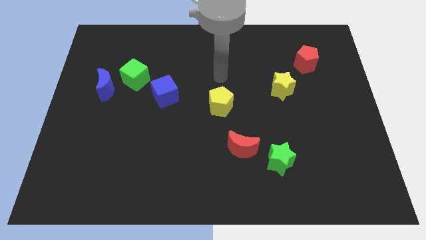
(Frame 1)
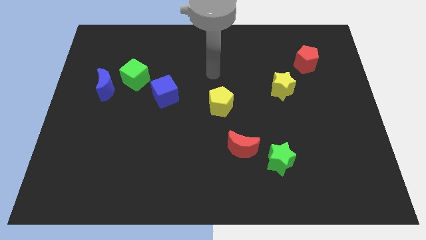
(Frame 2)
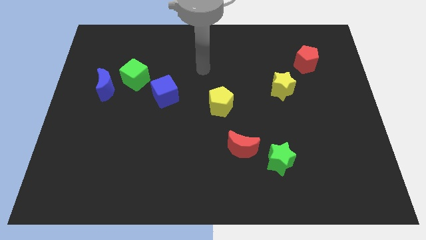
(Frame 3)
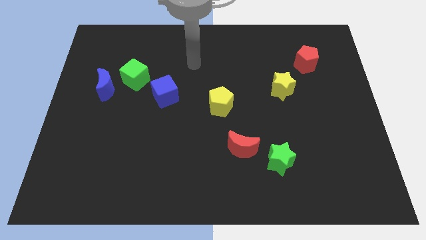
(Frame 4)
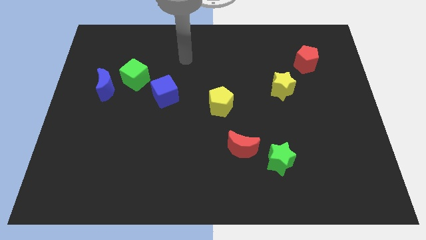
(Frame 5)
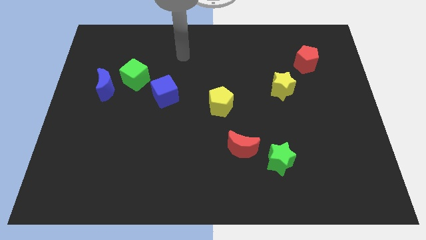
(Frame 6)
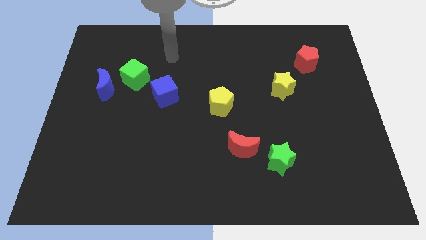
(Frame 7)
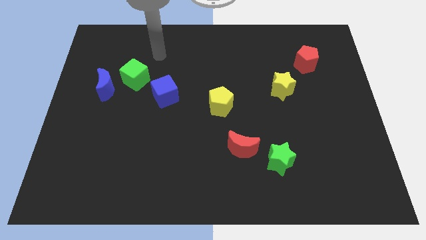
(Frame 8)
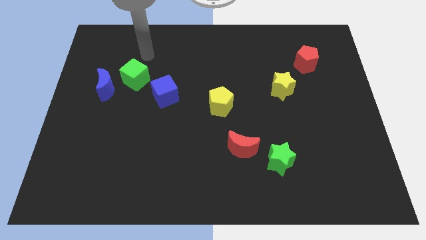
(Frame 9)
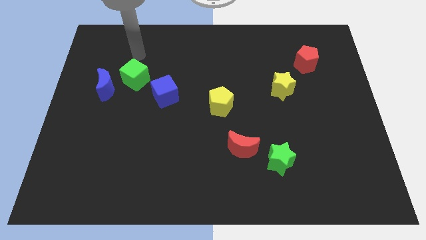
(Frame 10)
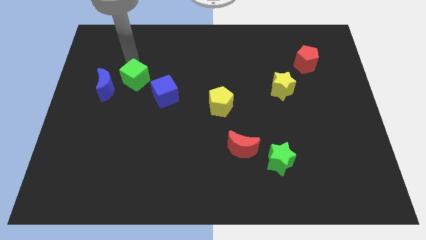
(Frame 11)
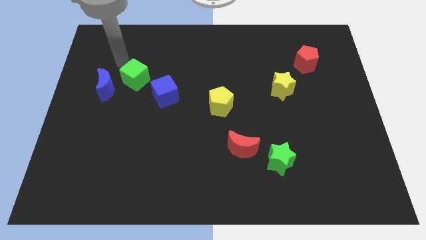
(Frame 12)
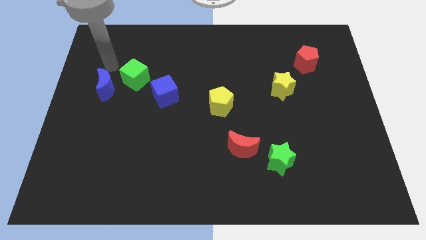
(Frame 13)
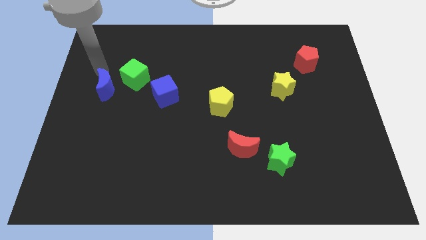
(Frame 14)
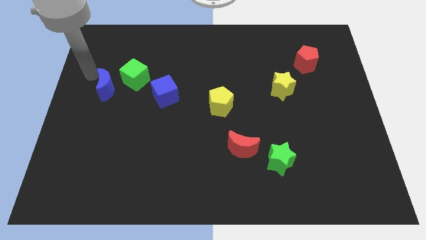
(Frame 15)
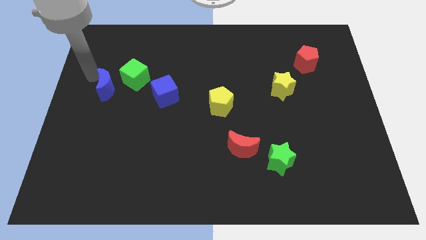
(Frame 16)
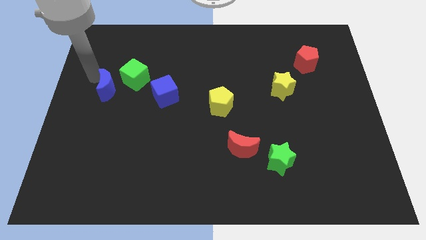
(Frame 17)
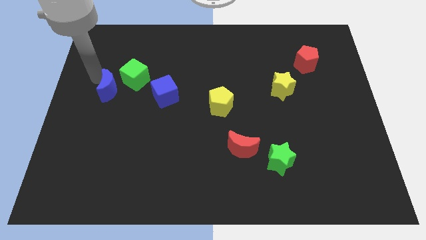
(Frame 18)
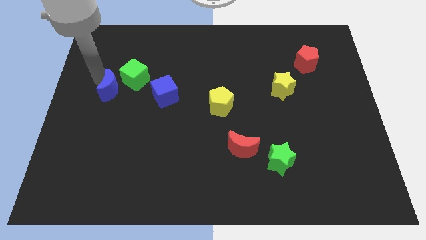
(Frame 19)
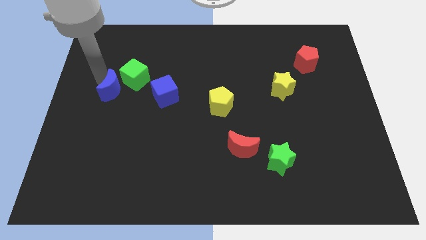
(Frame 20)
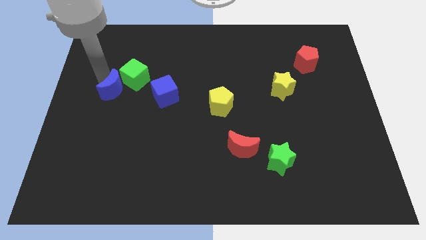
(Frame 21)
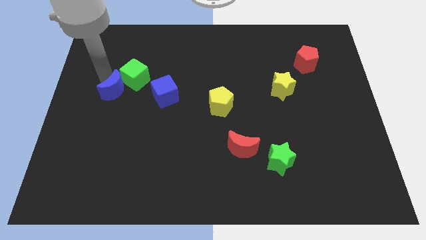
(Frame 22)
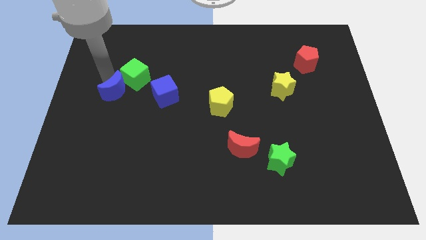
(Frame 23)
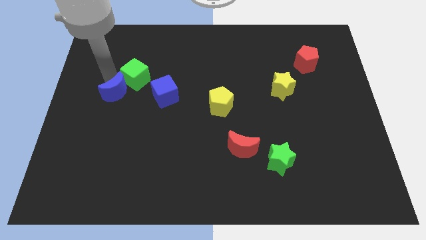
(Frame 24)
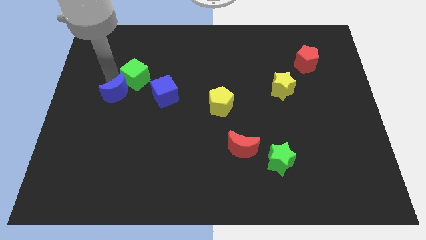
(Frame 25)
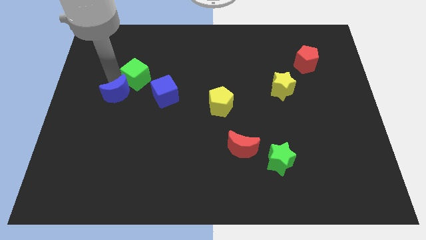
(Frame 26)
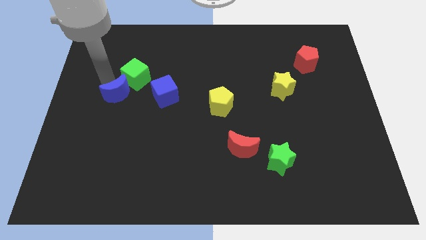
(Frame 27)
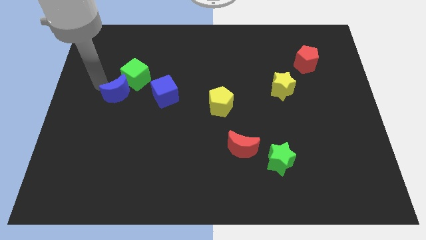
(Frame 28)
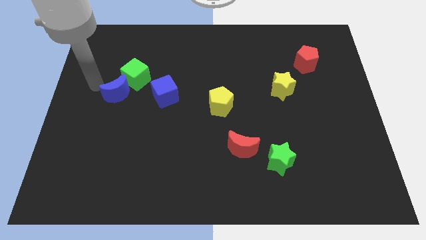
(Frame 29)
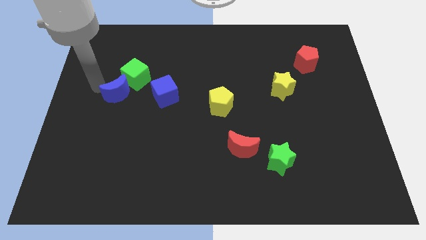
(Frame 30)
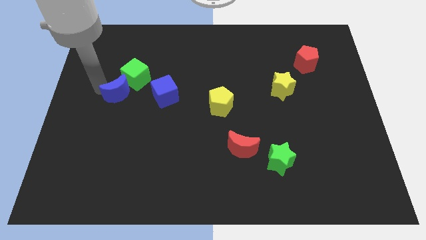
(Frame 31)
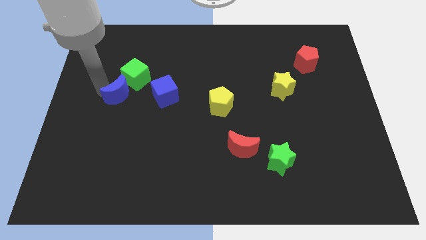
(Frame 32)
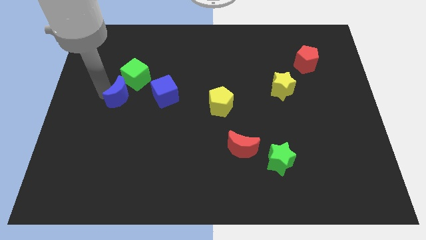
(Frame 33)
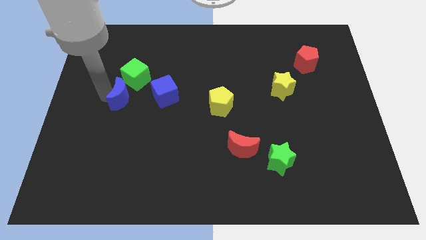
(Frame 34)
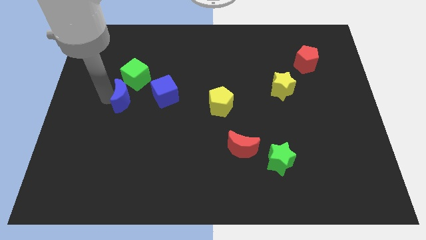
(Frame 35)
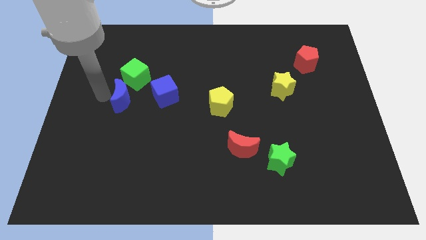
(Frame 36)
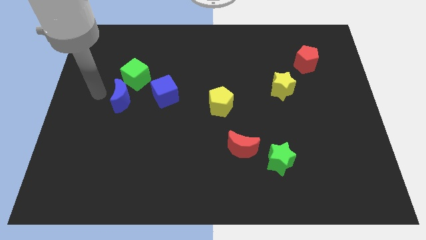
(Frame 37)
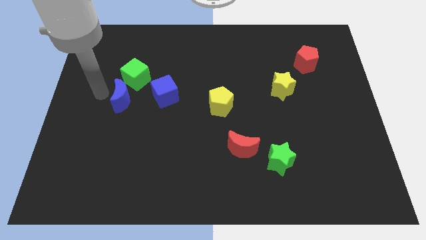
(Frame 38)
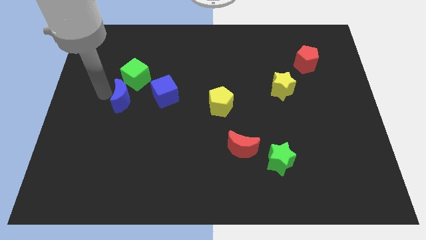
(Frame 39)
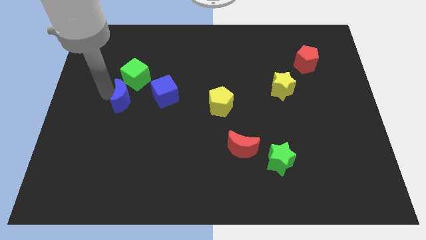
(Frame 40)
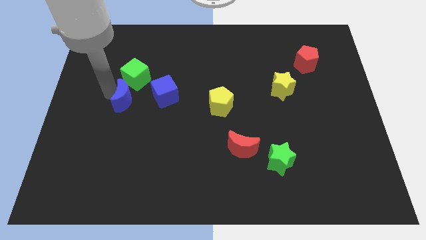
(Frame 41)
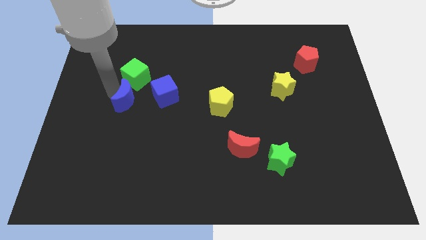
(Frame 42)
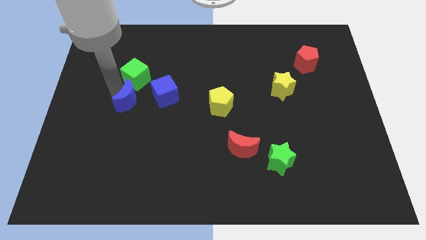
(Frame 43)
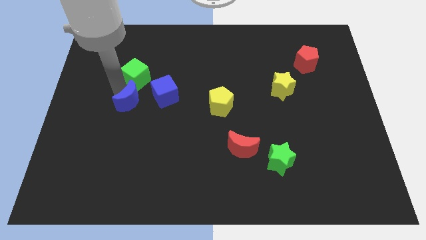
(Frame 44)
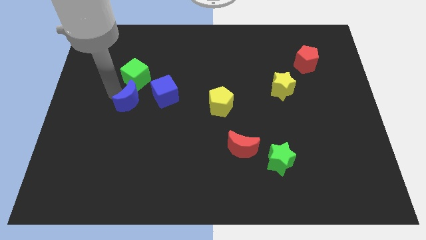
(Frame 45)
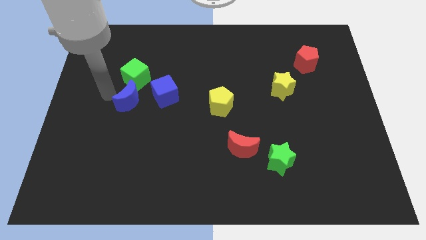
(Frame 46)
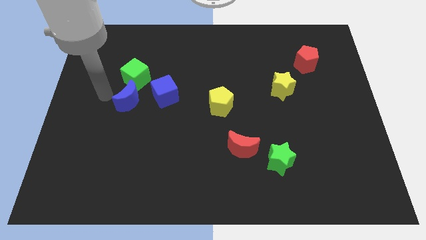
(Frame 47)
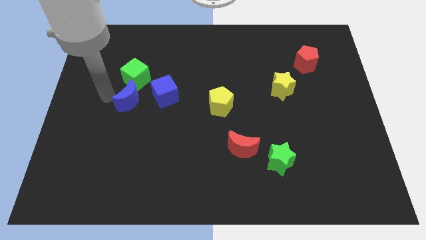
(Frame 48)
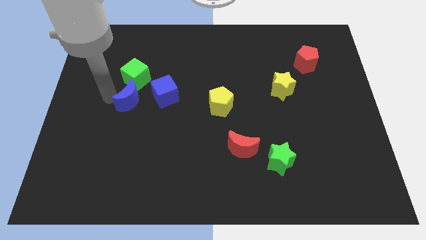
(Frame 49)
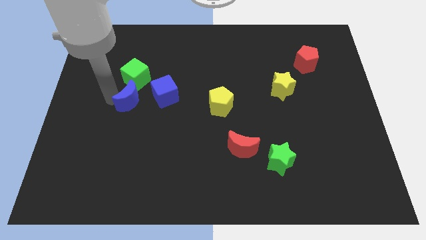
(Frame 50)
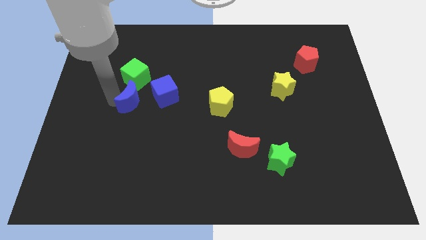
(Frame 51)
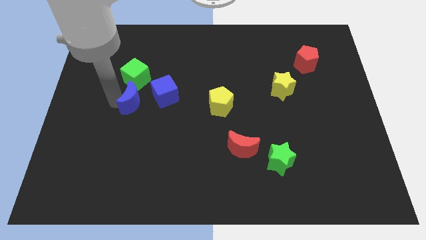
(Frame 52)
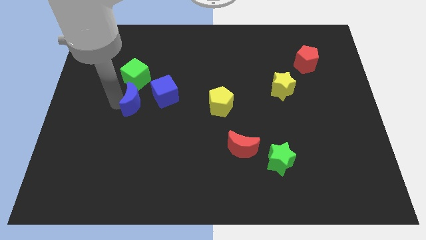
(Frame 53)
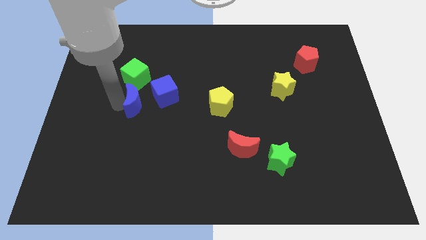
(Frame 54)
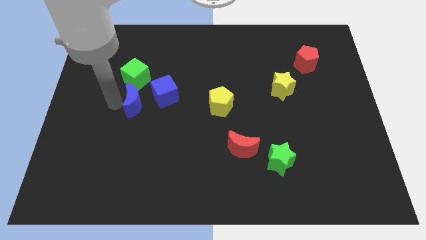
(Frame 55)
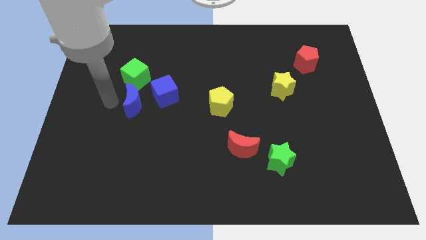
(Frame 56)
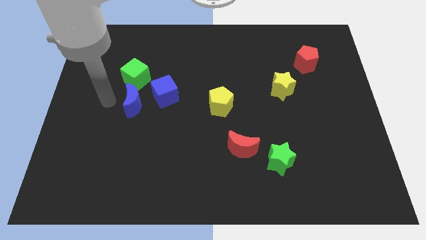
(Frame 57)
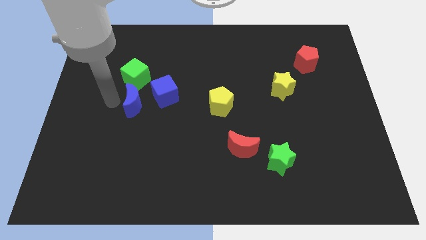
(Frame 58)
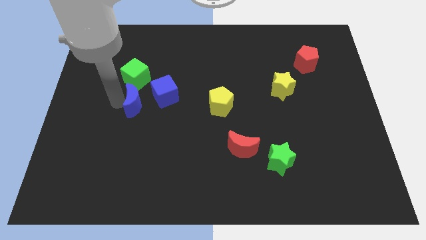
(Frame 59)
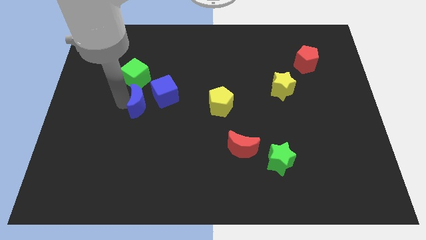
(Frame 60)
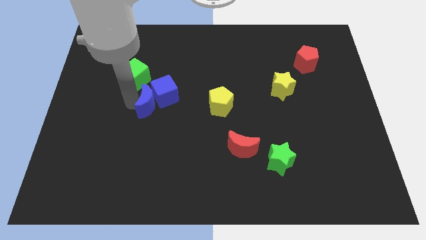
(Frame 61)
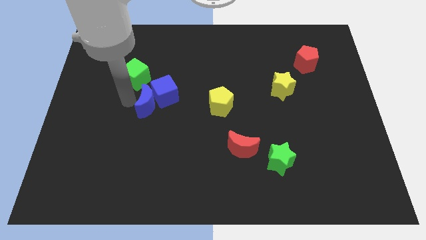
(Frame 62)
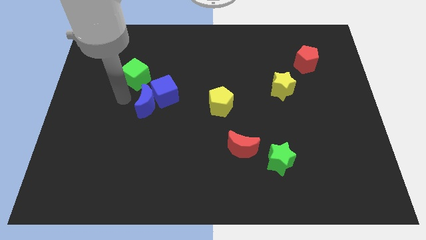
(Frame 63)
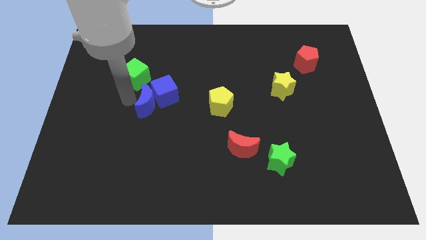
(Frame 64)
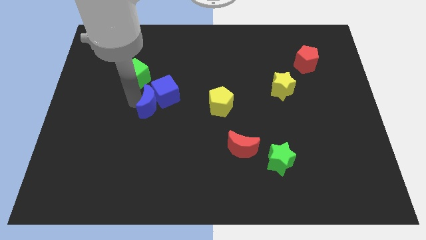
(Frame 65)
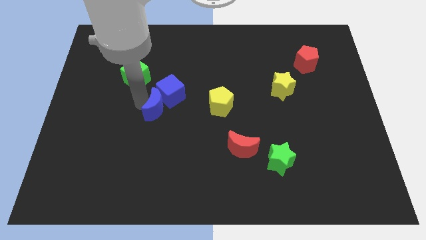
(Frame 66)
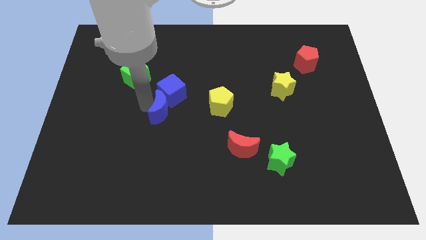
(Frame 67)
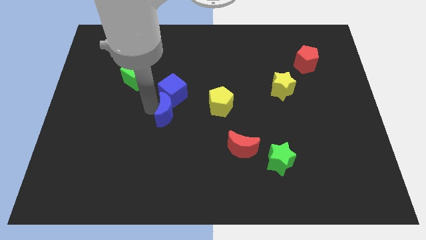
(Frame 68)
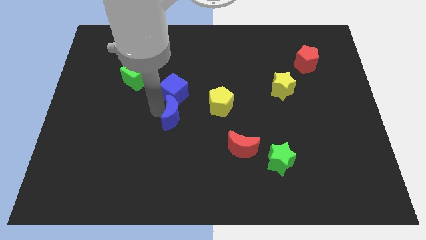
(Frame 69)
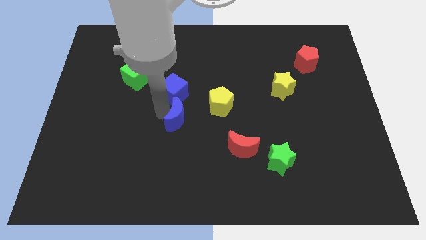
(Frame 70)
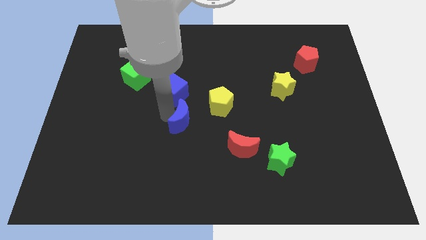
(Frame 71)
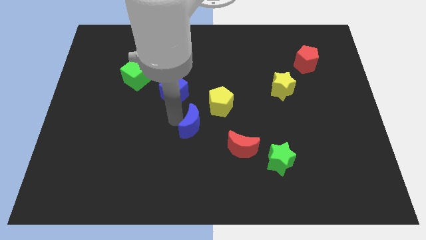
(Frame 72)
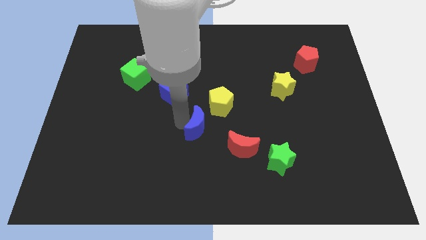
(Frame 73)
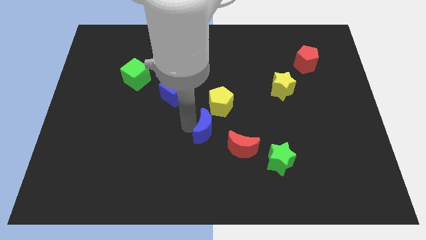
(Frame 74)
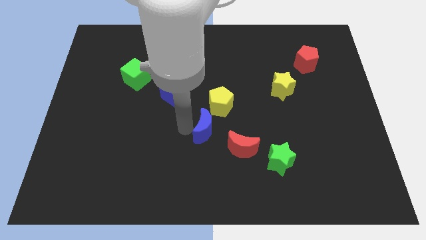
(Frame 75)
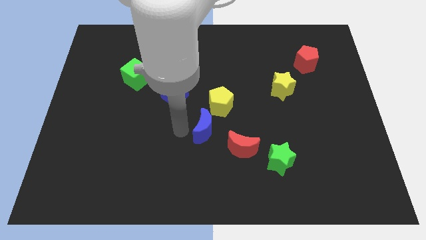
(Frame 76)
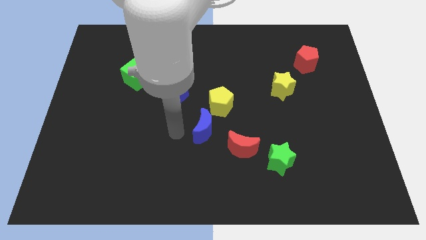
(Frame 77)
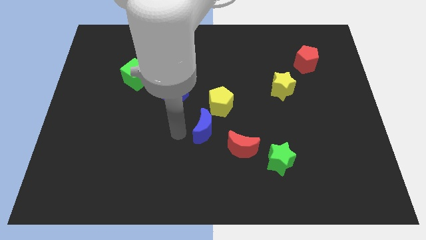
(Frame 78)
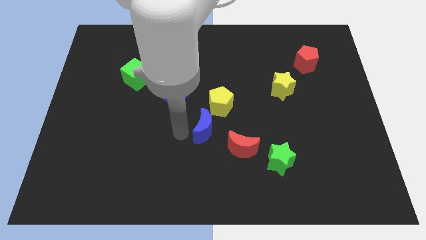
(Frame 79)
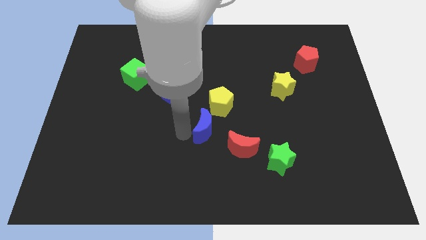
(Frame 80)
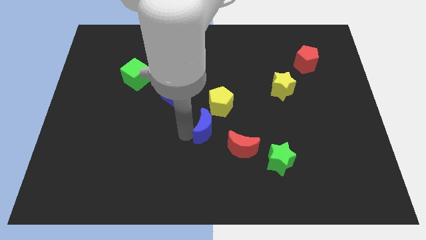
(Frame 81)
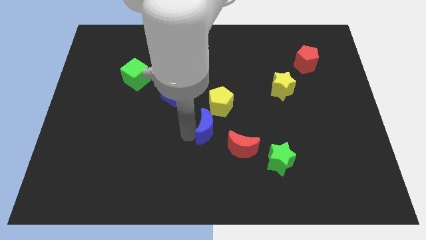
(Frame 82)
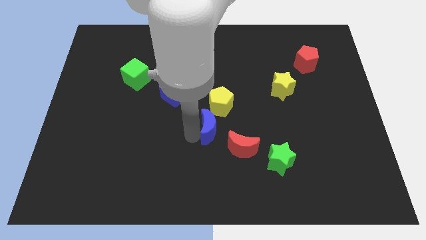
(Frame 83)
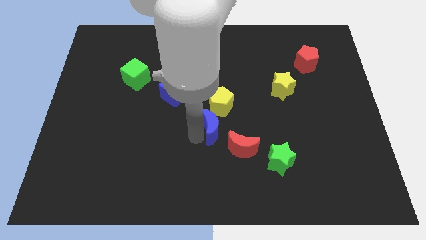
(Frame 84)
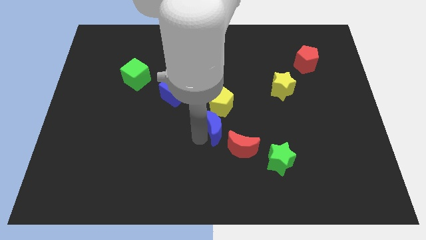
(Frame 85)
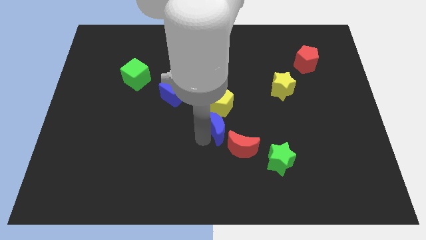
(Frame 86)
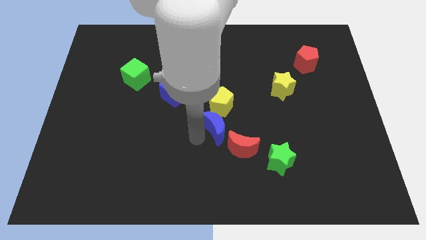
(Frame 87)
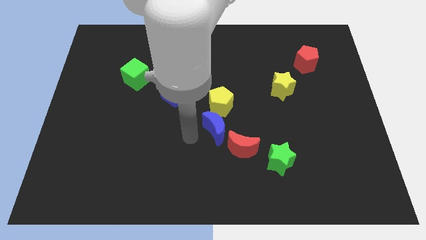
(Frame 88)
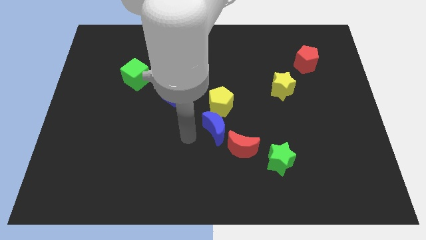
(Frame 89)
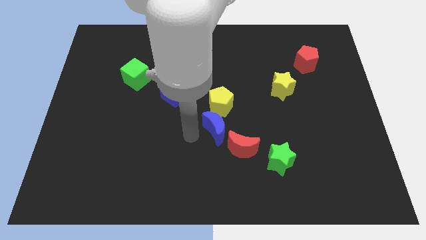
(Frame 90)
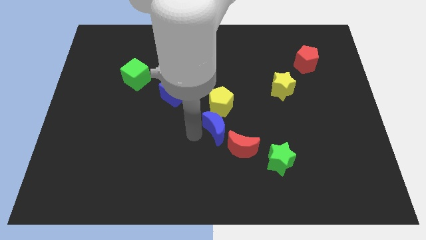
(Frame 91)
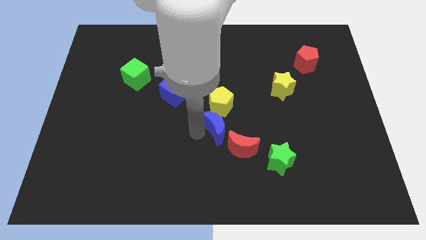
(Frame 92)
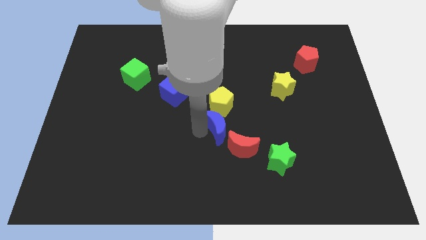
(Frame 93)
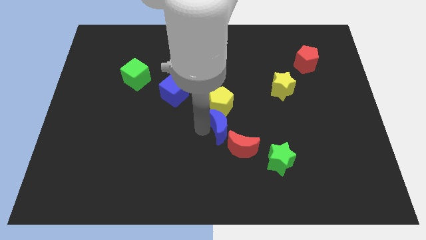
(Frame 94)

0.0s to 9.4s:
put the blue moon diagonally down and to the right of the yellow pentagon
